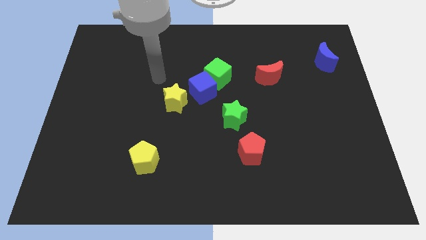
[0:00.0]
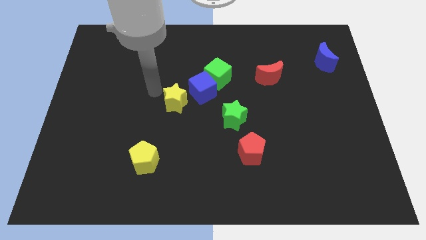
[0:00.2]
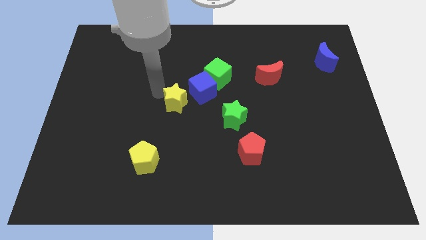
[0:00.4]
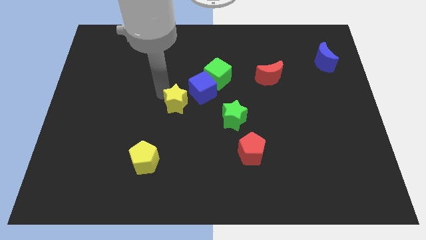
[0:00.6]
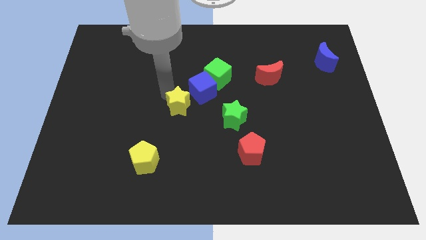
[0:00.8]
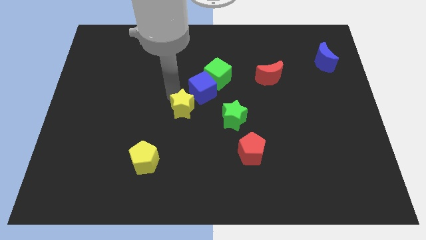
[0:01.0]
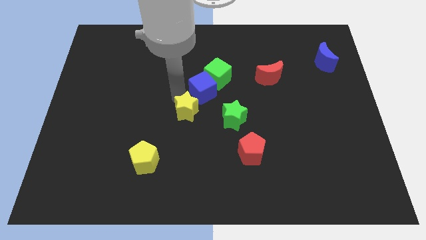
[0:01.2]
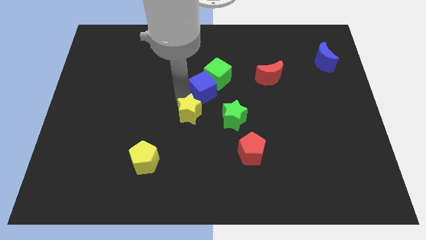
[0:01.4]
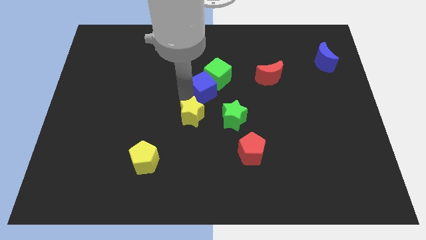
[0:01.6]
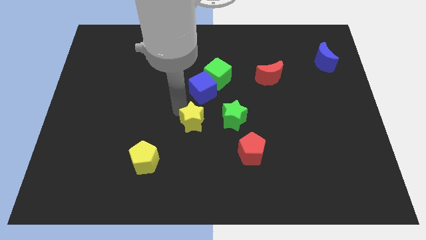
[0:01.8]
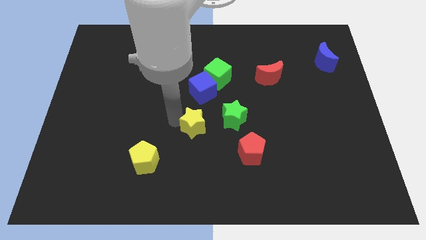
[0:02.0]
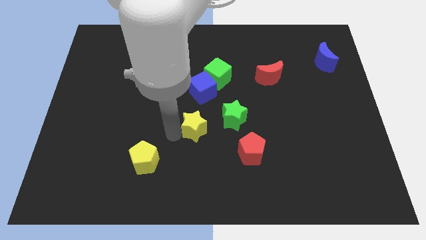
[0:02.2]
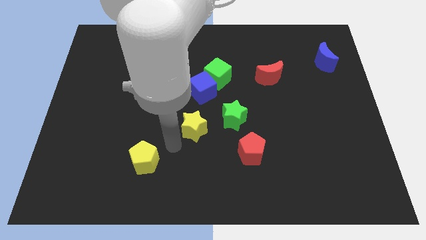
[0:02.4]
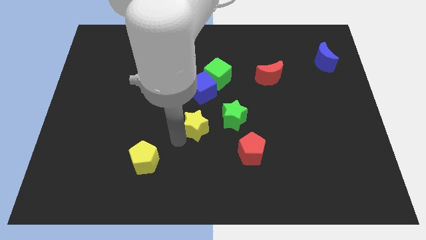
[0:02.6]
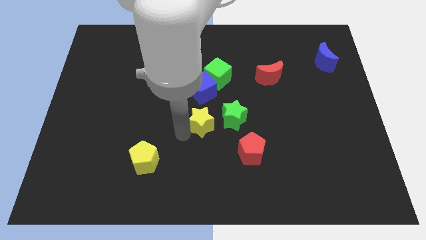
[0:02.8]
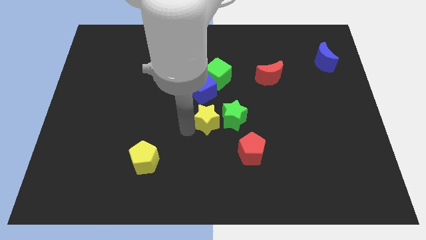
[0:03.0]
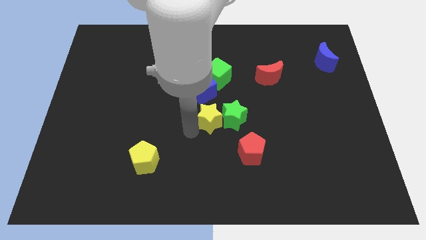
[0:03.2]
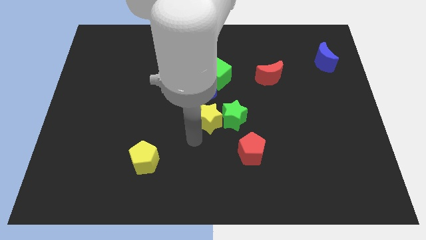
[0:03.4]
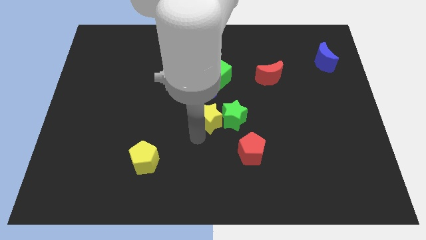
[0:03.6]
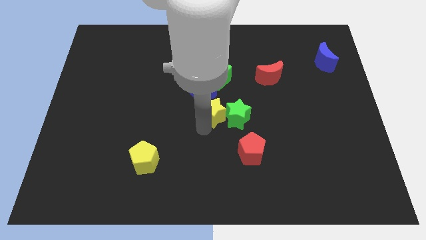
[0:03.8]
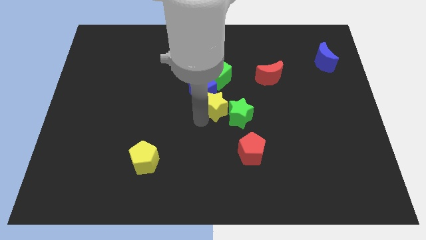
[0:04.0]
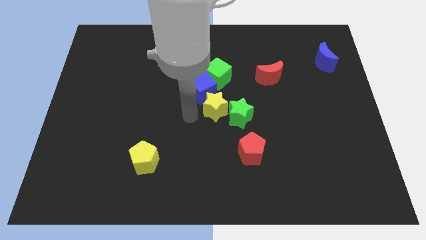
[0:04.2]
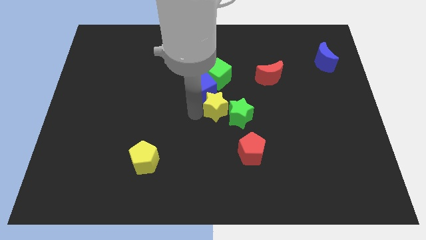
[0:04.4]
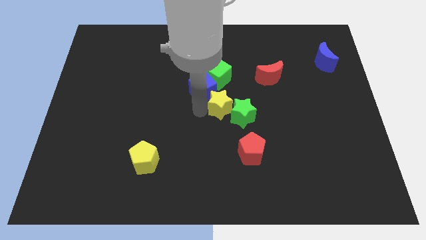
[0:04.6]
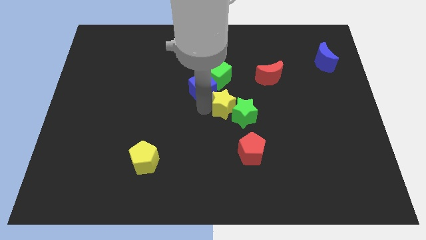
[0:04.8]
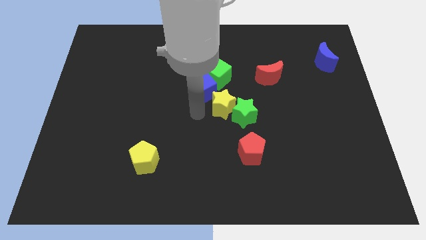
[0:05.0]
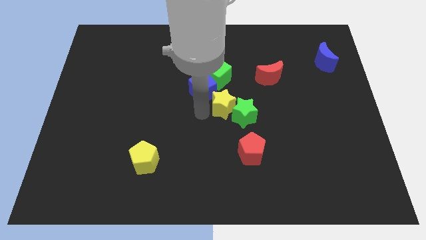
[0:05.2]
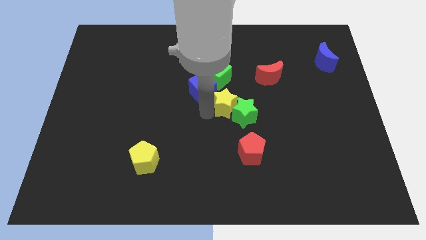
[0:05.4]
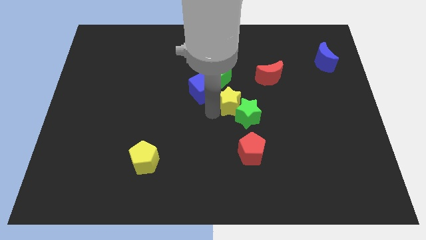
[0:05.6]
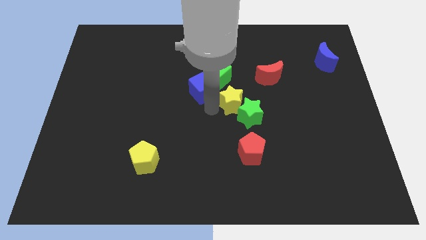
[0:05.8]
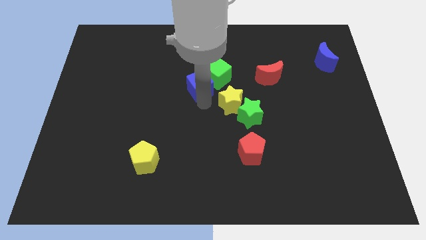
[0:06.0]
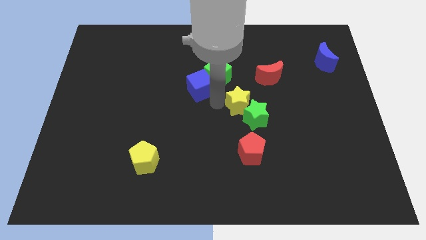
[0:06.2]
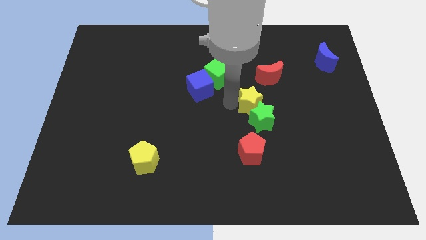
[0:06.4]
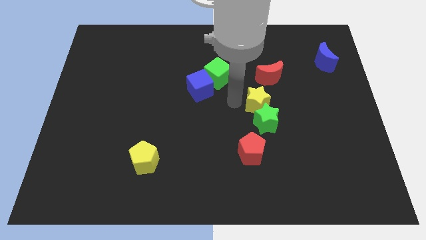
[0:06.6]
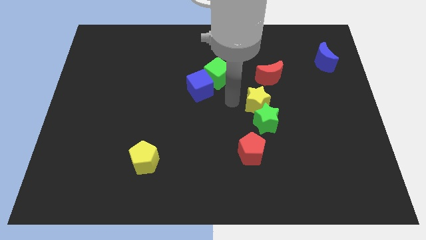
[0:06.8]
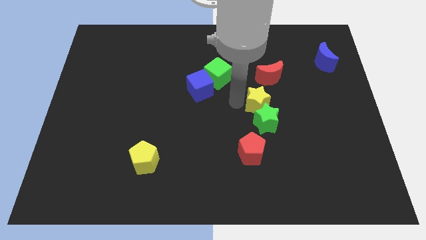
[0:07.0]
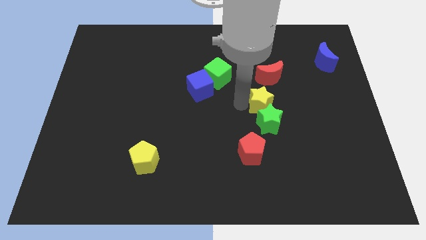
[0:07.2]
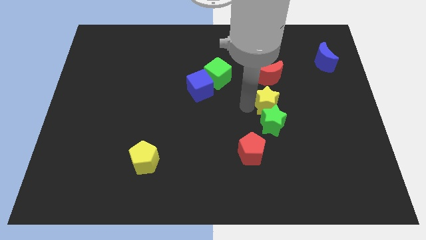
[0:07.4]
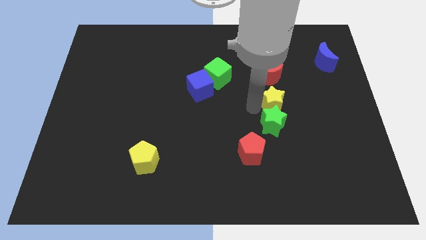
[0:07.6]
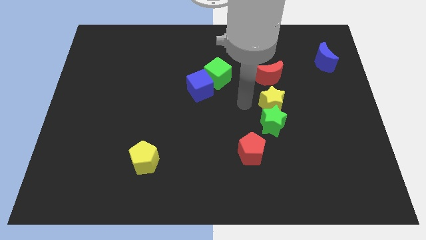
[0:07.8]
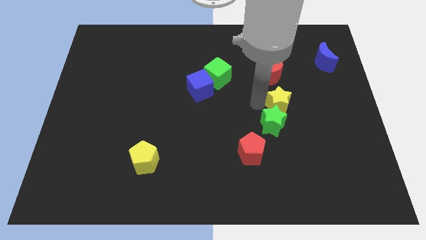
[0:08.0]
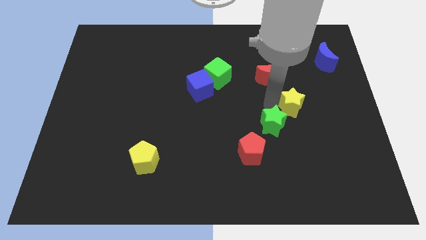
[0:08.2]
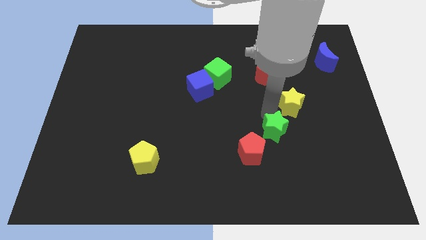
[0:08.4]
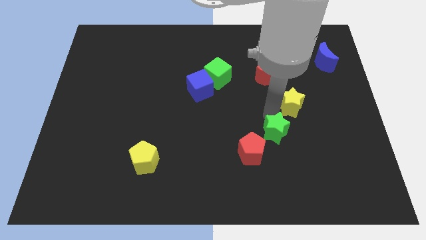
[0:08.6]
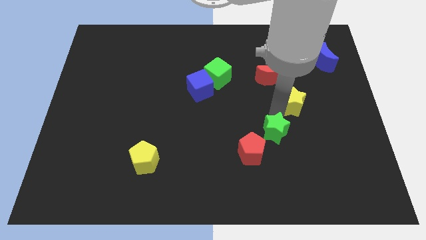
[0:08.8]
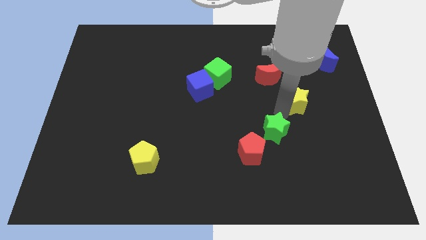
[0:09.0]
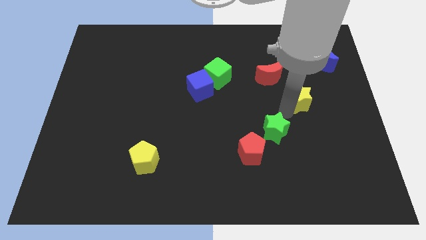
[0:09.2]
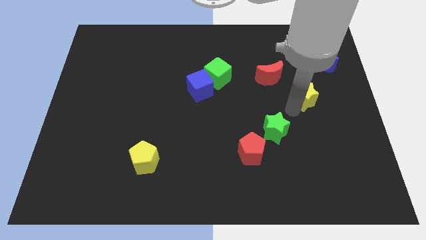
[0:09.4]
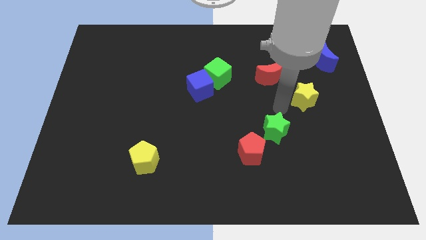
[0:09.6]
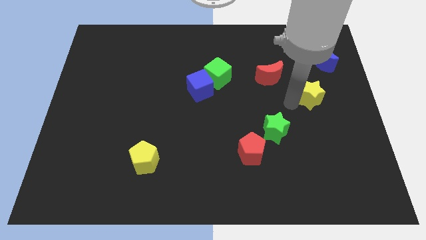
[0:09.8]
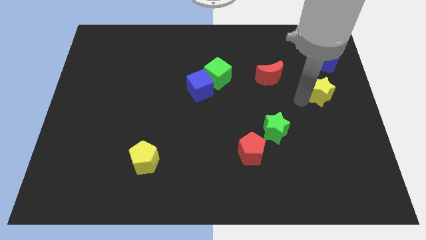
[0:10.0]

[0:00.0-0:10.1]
slide the yellow star to the center right

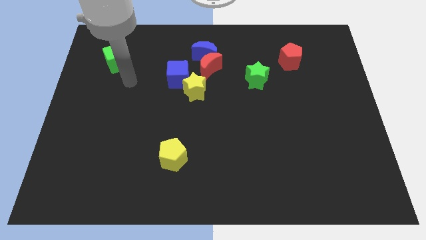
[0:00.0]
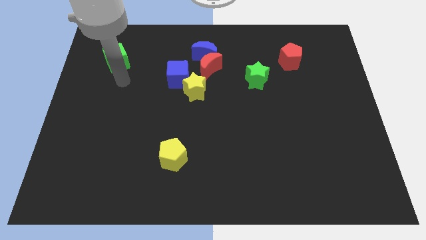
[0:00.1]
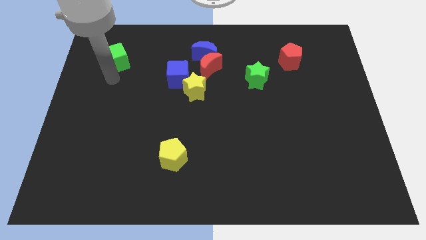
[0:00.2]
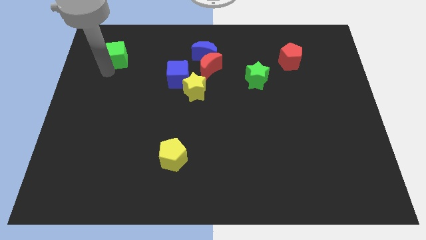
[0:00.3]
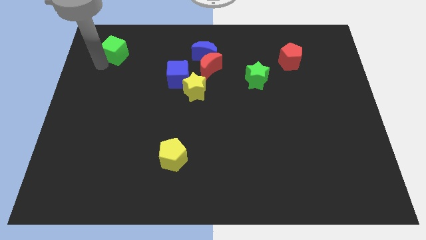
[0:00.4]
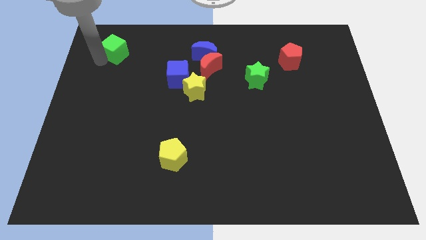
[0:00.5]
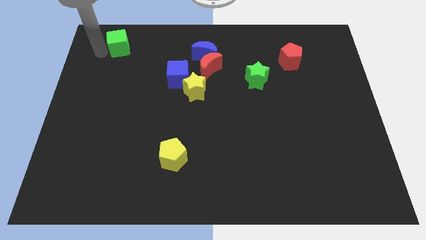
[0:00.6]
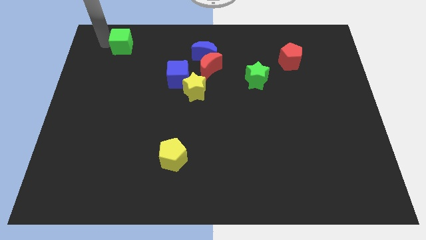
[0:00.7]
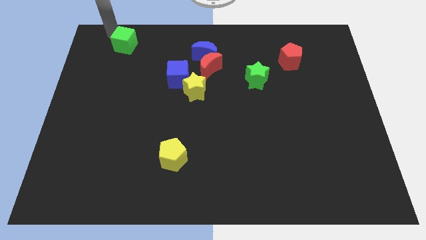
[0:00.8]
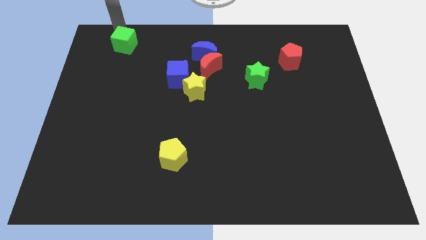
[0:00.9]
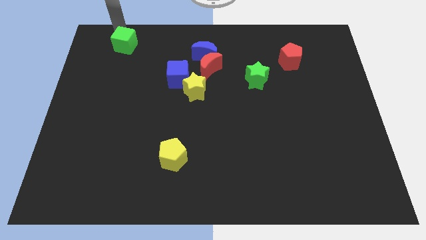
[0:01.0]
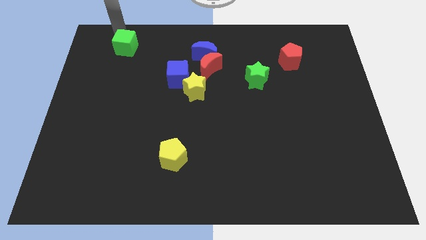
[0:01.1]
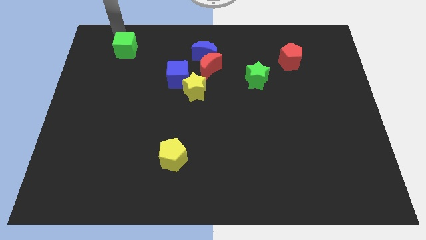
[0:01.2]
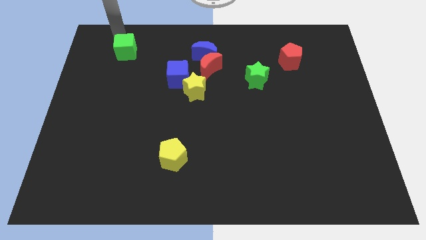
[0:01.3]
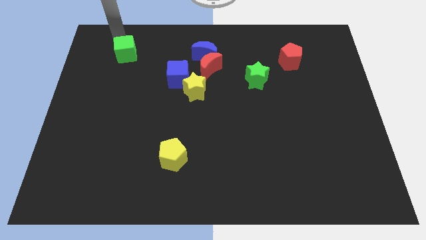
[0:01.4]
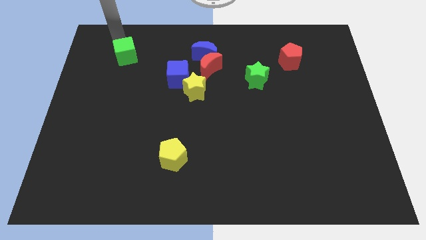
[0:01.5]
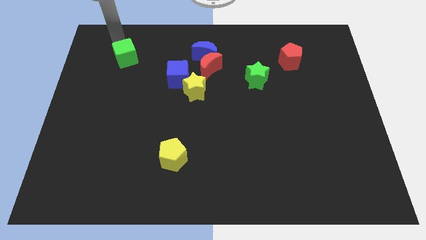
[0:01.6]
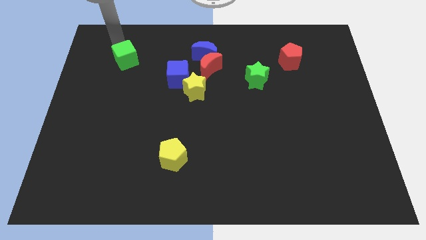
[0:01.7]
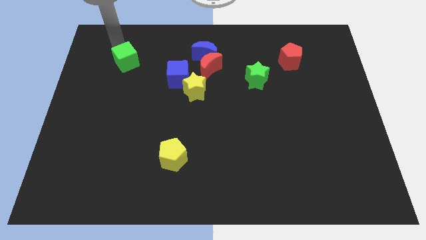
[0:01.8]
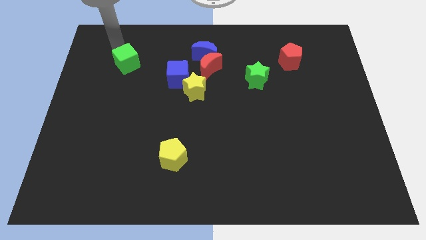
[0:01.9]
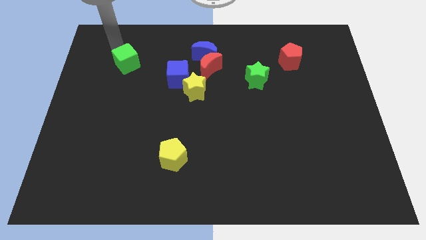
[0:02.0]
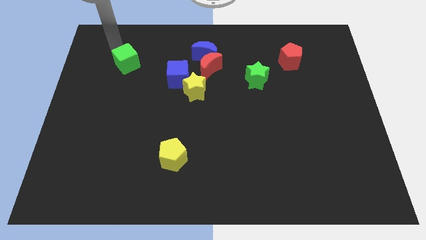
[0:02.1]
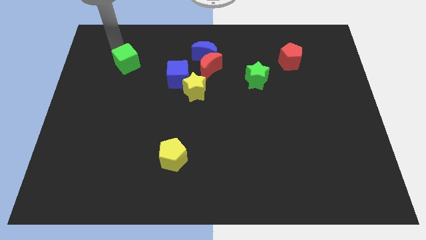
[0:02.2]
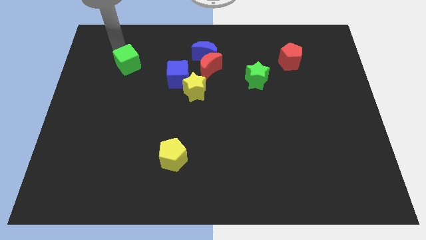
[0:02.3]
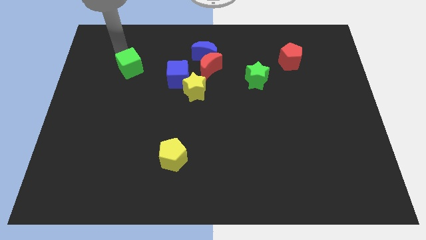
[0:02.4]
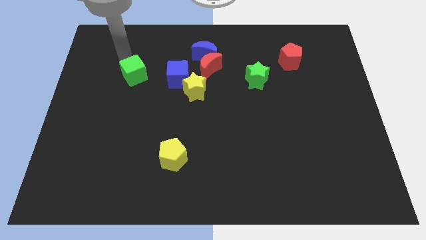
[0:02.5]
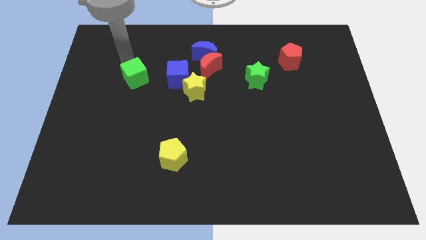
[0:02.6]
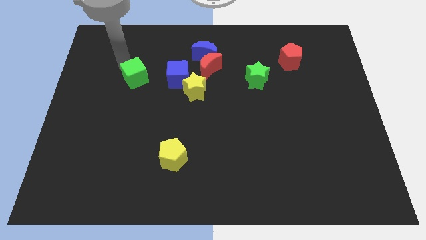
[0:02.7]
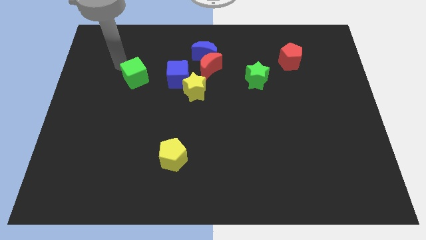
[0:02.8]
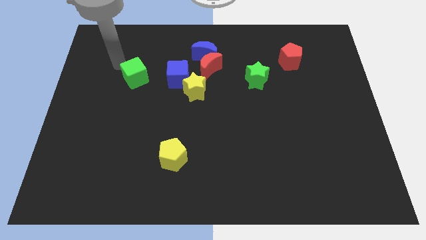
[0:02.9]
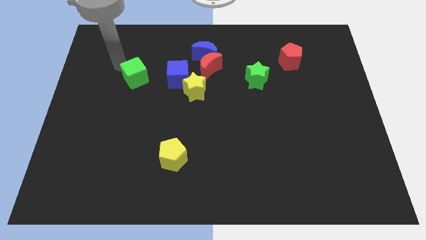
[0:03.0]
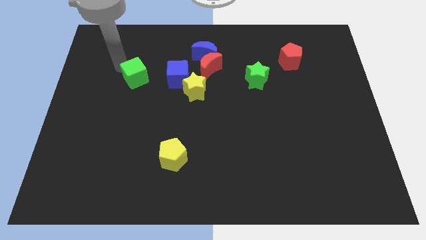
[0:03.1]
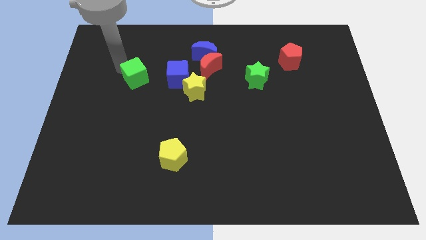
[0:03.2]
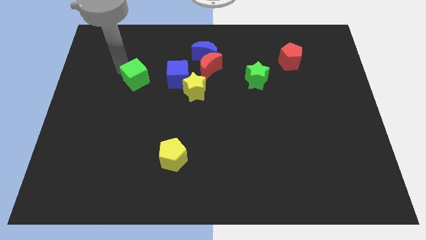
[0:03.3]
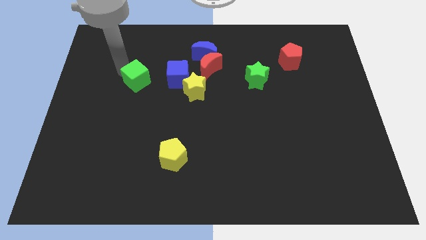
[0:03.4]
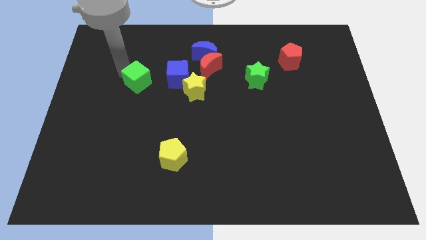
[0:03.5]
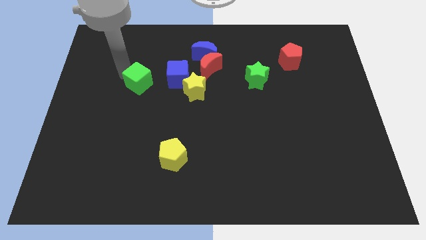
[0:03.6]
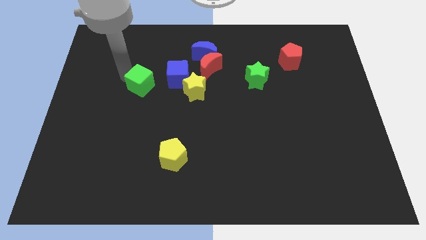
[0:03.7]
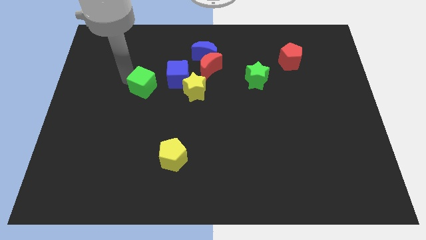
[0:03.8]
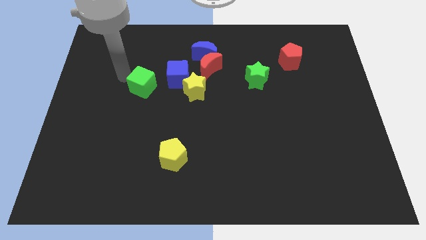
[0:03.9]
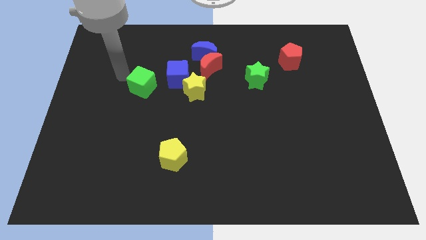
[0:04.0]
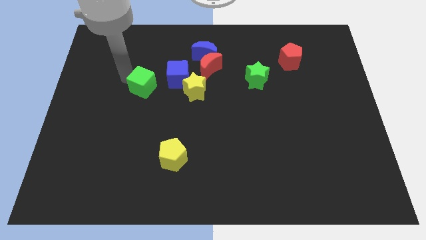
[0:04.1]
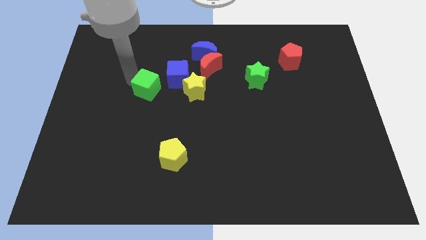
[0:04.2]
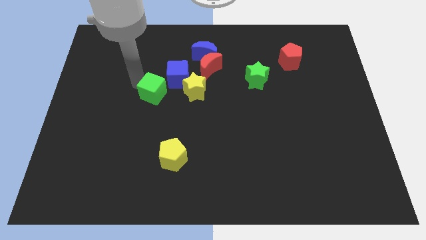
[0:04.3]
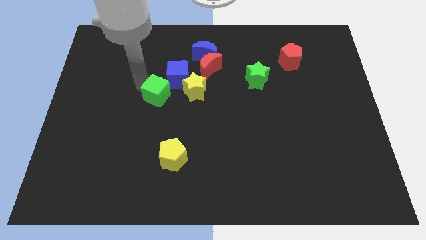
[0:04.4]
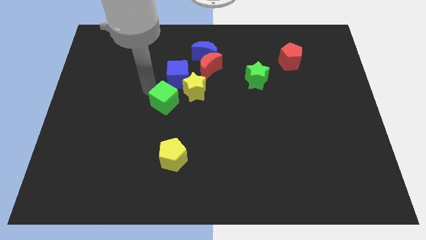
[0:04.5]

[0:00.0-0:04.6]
put the green cube to the center of the board
